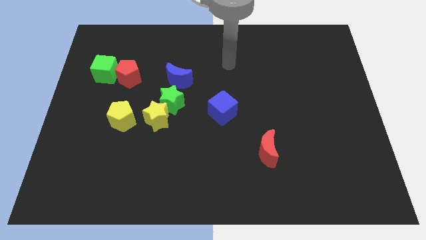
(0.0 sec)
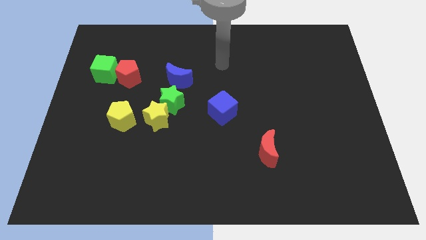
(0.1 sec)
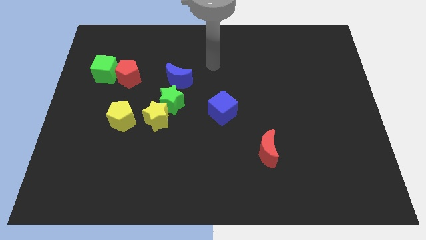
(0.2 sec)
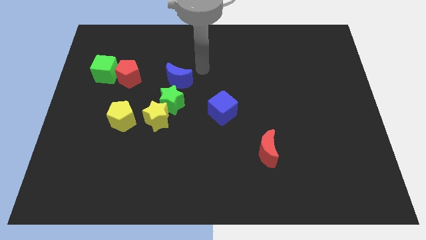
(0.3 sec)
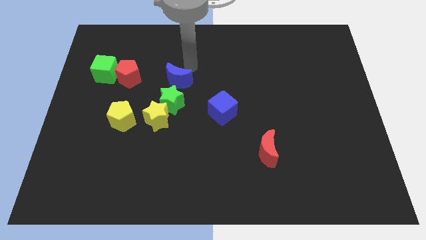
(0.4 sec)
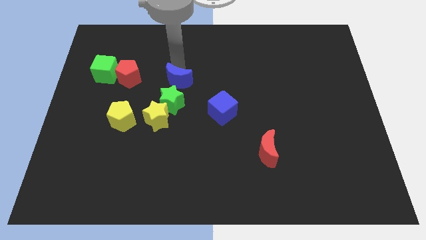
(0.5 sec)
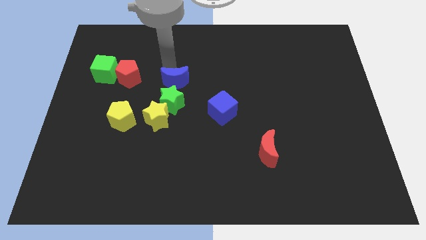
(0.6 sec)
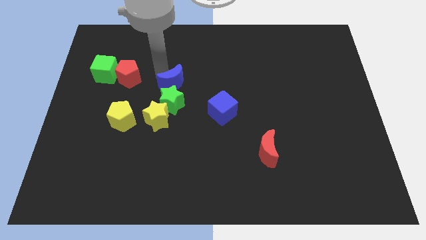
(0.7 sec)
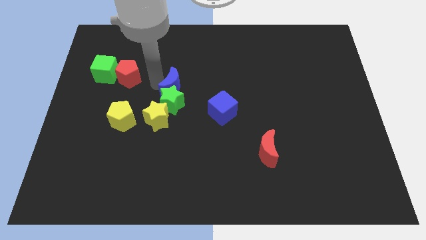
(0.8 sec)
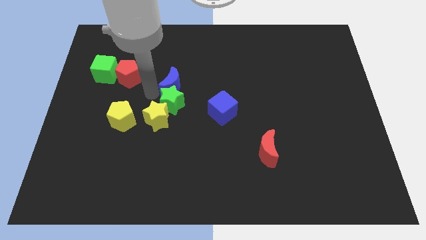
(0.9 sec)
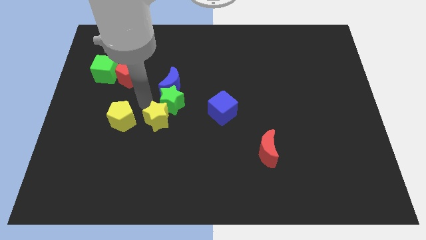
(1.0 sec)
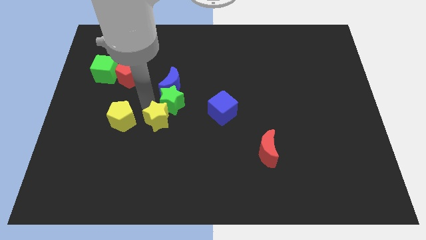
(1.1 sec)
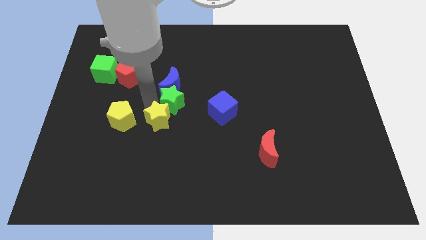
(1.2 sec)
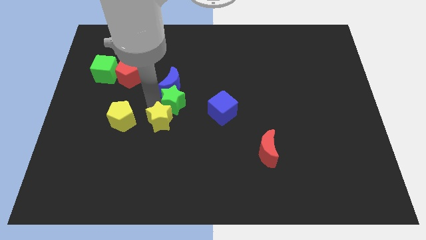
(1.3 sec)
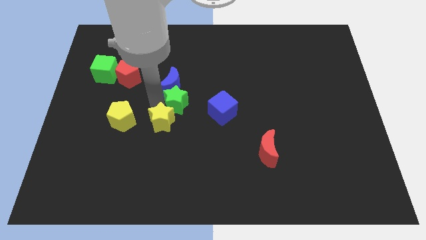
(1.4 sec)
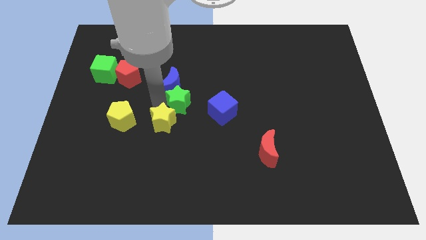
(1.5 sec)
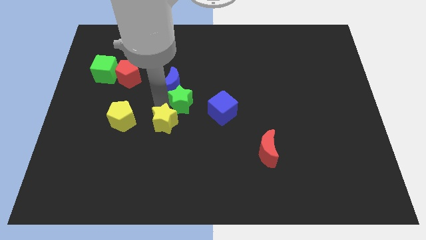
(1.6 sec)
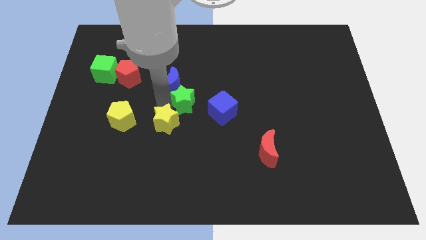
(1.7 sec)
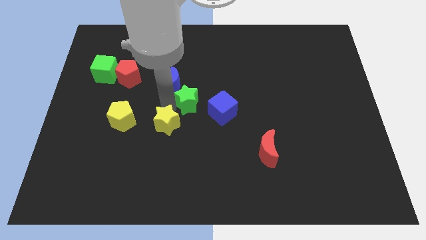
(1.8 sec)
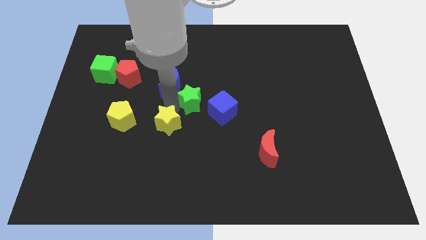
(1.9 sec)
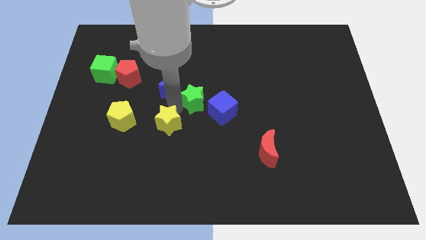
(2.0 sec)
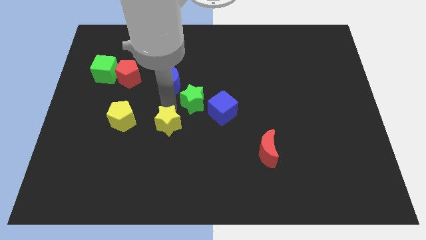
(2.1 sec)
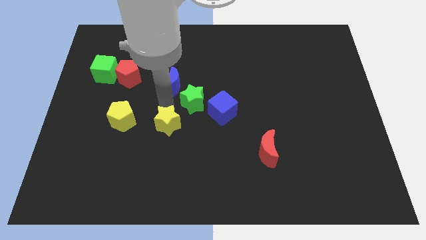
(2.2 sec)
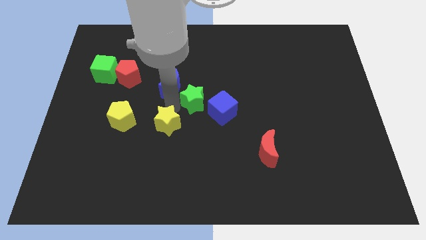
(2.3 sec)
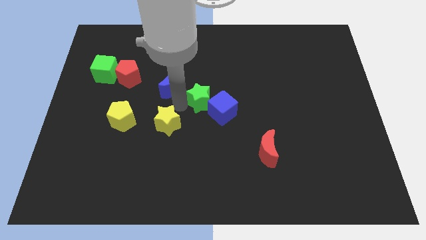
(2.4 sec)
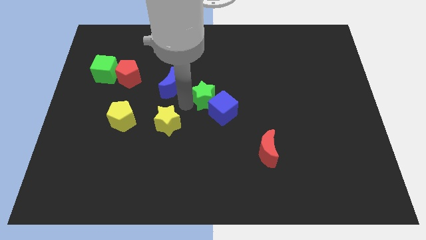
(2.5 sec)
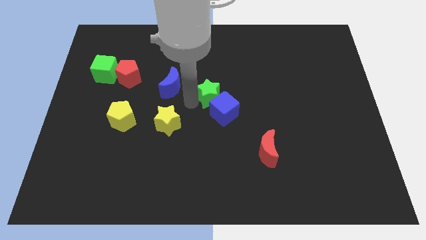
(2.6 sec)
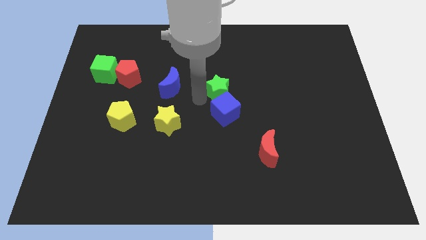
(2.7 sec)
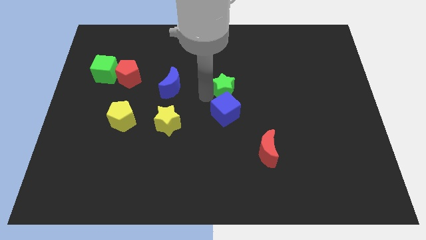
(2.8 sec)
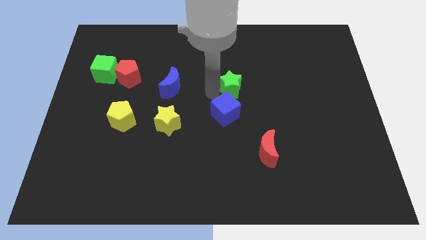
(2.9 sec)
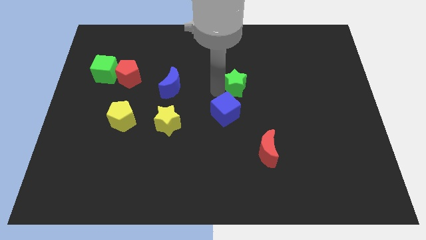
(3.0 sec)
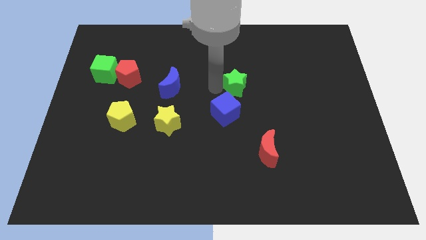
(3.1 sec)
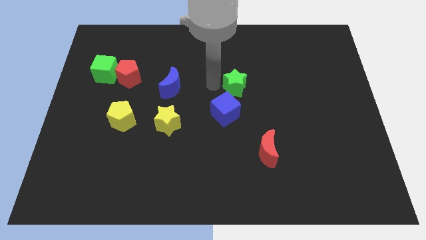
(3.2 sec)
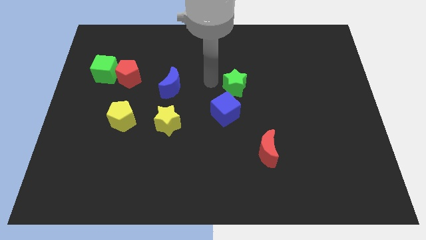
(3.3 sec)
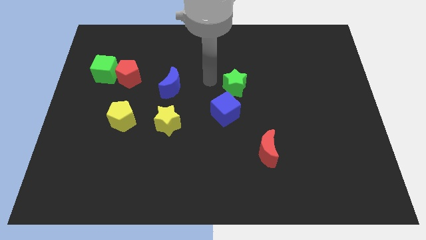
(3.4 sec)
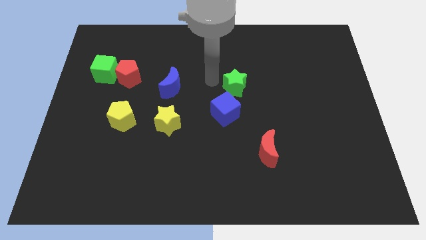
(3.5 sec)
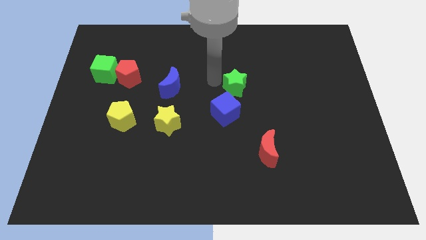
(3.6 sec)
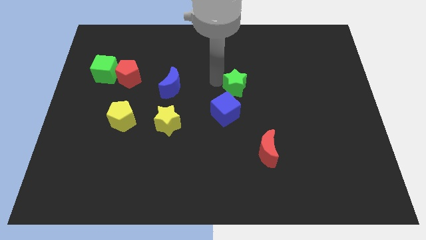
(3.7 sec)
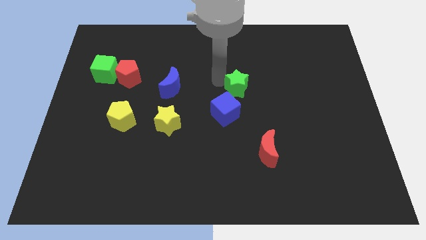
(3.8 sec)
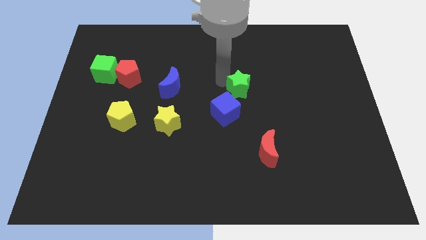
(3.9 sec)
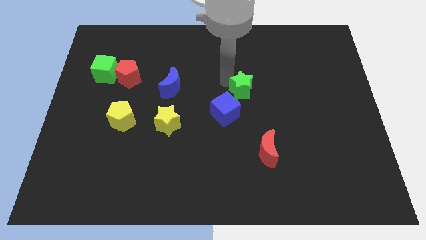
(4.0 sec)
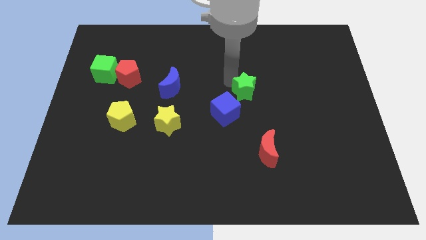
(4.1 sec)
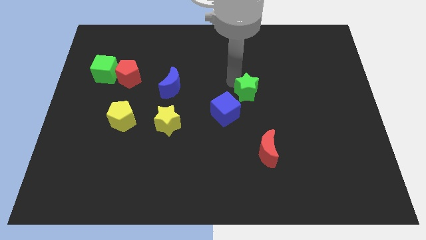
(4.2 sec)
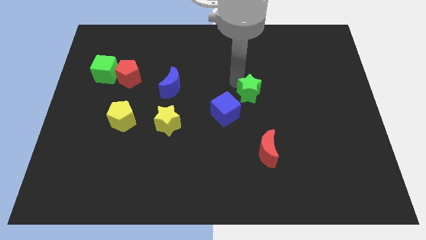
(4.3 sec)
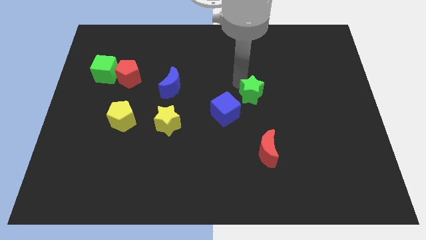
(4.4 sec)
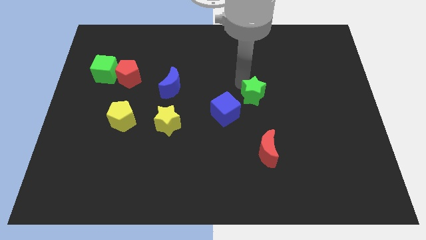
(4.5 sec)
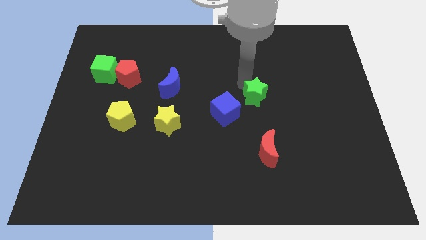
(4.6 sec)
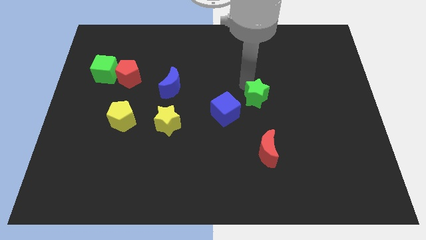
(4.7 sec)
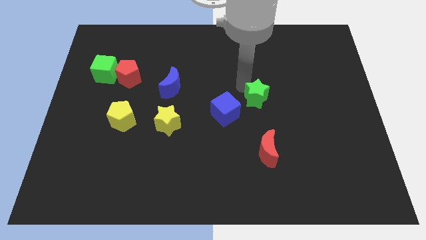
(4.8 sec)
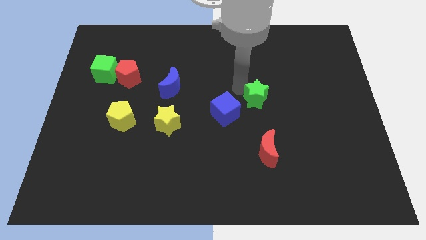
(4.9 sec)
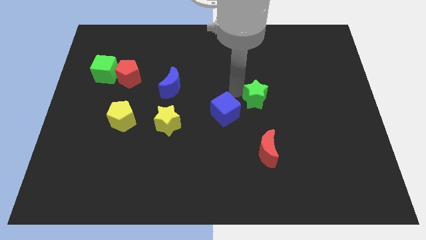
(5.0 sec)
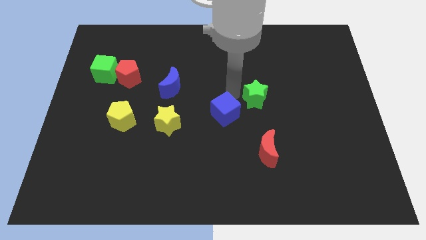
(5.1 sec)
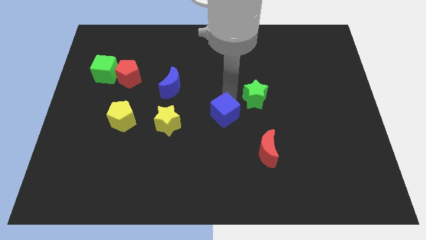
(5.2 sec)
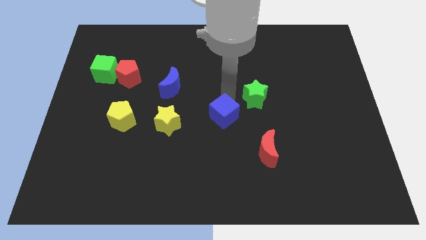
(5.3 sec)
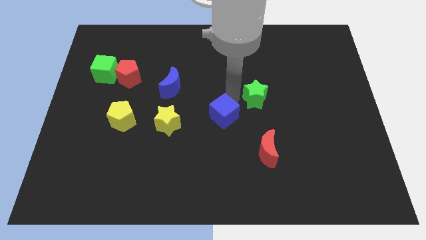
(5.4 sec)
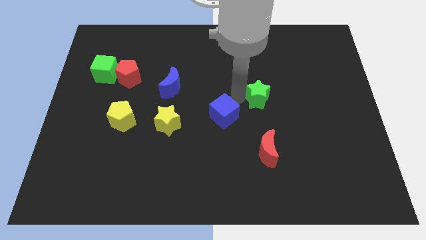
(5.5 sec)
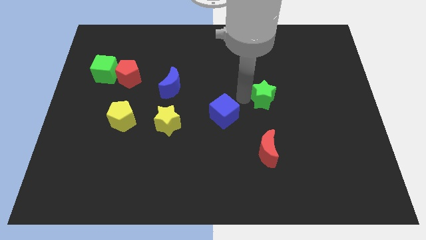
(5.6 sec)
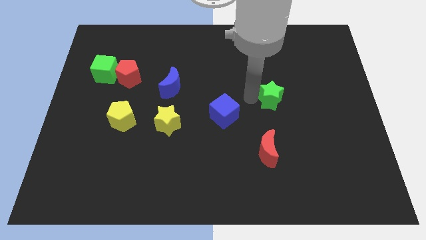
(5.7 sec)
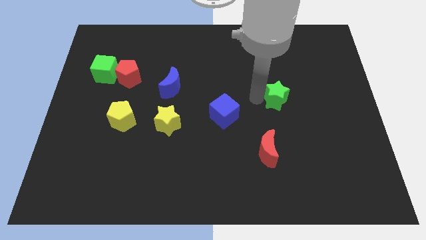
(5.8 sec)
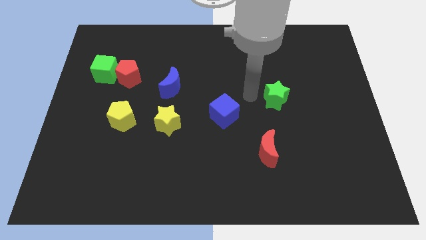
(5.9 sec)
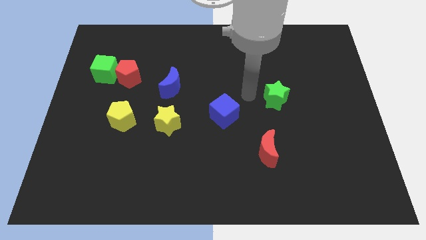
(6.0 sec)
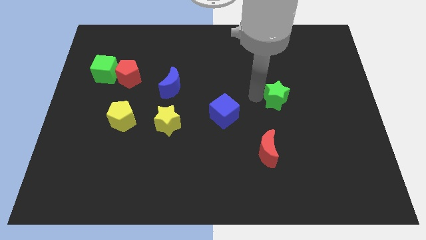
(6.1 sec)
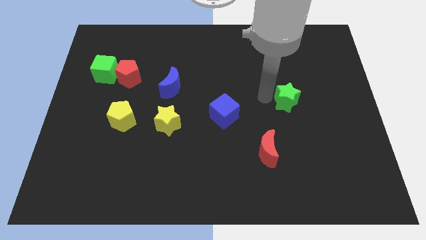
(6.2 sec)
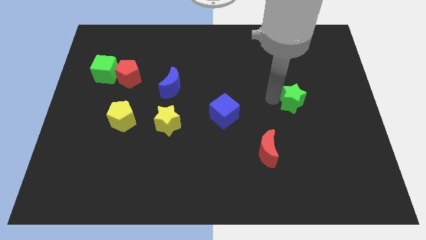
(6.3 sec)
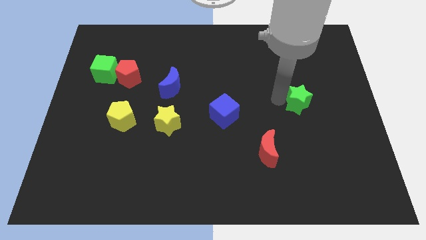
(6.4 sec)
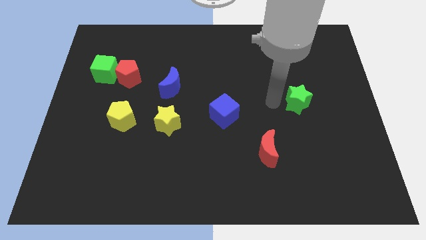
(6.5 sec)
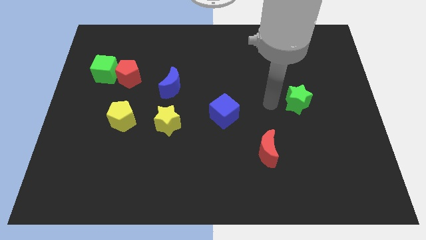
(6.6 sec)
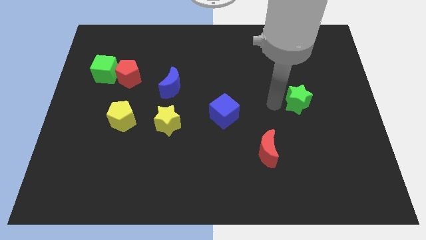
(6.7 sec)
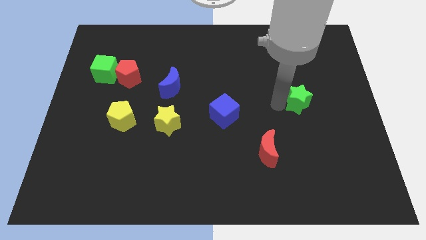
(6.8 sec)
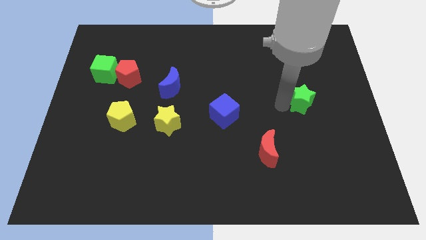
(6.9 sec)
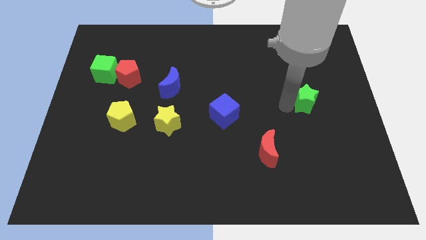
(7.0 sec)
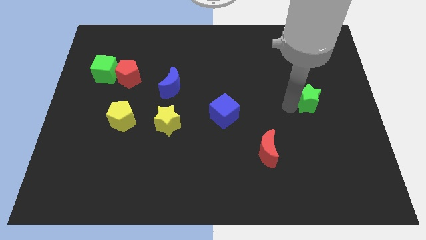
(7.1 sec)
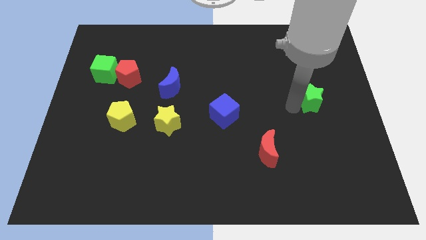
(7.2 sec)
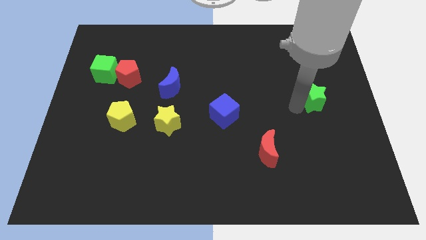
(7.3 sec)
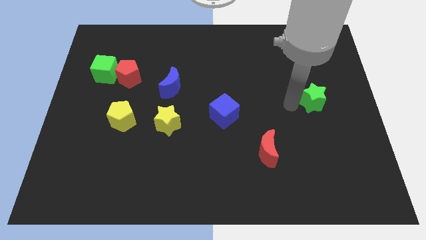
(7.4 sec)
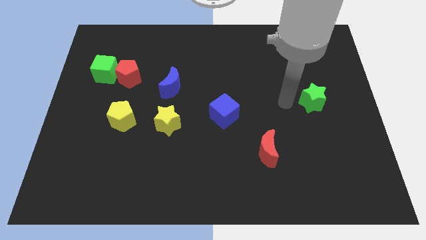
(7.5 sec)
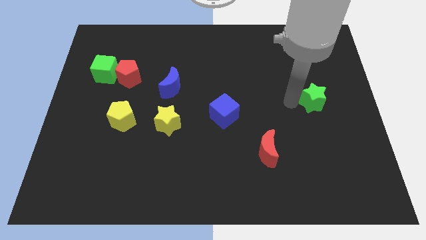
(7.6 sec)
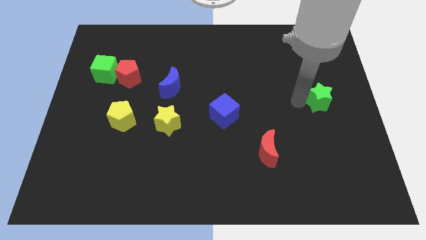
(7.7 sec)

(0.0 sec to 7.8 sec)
push the green star to the right side
